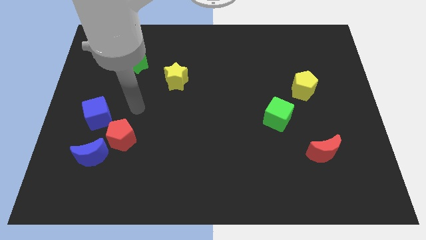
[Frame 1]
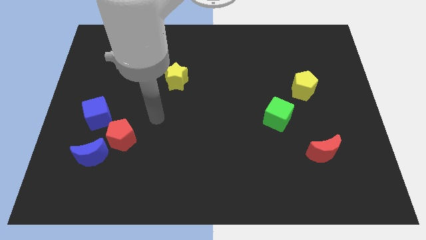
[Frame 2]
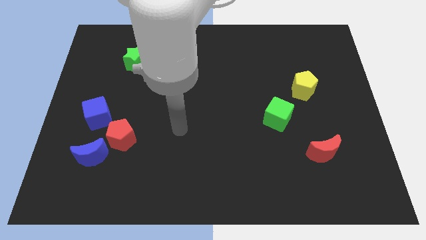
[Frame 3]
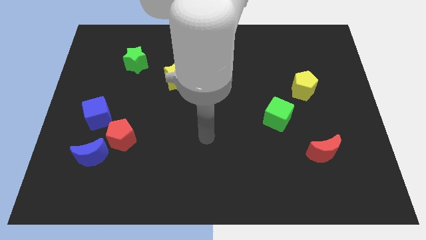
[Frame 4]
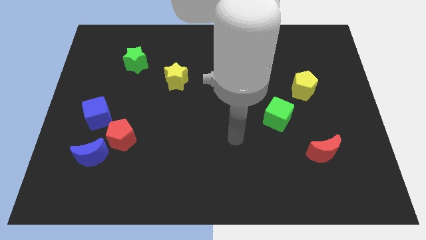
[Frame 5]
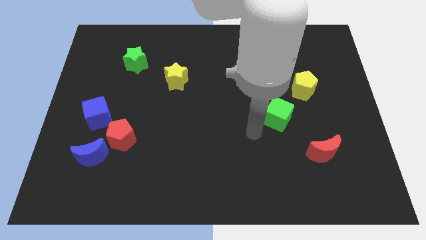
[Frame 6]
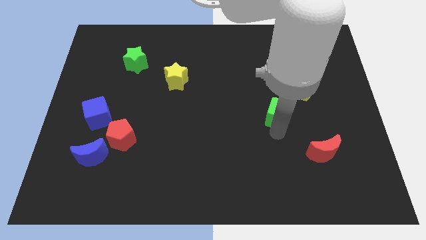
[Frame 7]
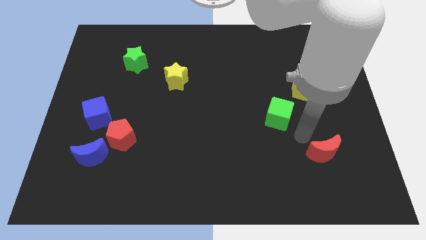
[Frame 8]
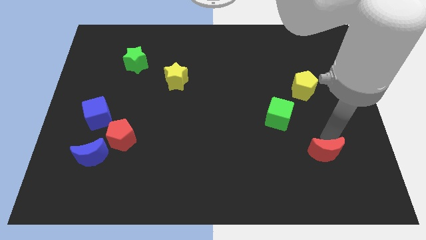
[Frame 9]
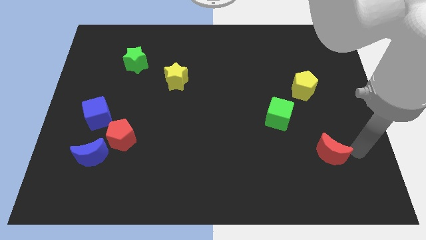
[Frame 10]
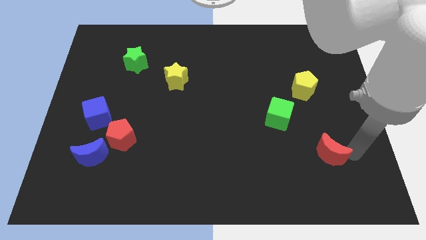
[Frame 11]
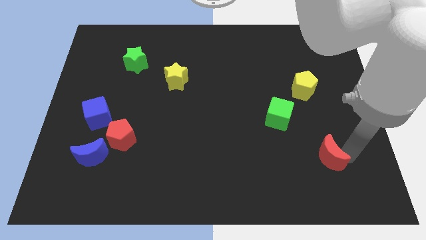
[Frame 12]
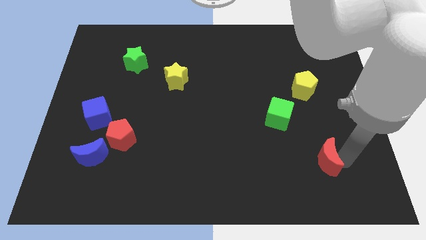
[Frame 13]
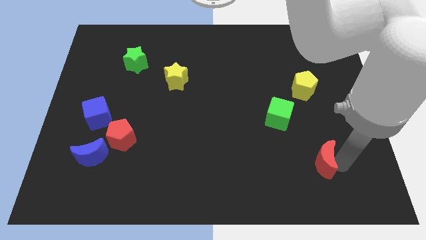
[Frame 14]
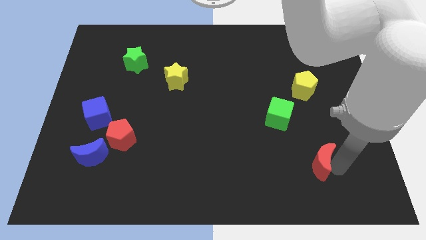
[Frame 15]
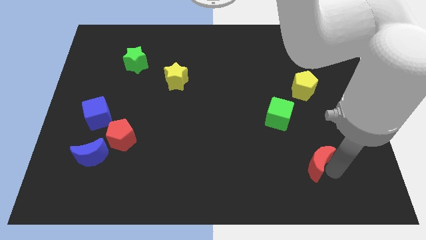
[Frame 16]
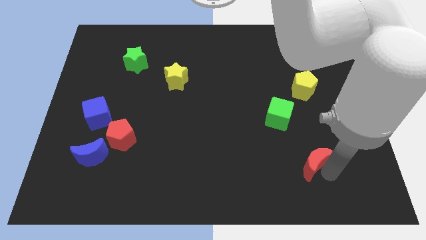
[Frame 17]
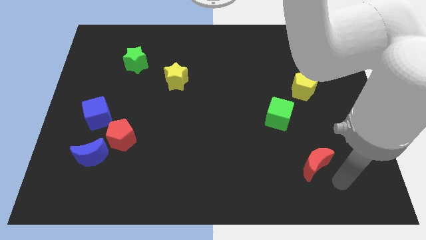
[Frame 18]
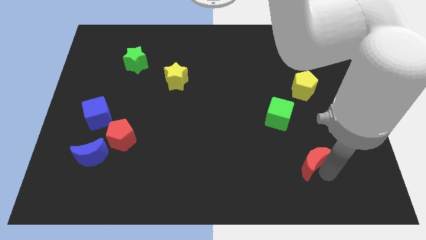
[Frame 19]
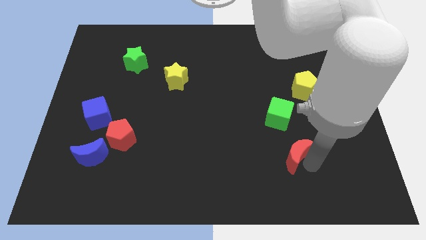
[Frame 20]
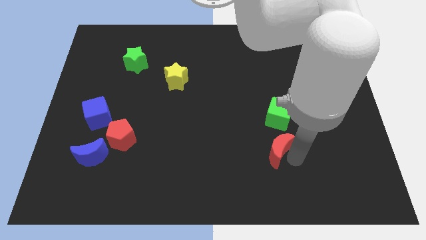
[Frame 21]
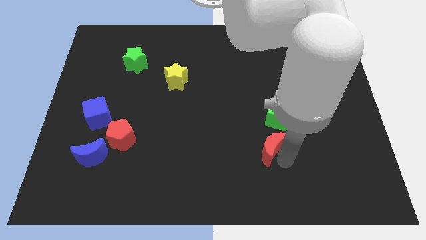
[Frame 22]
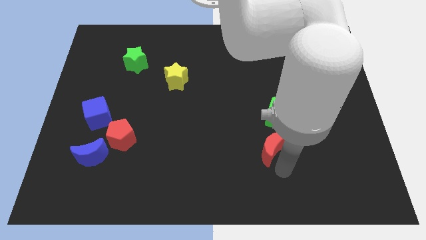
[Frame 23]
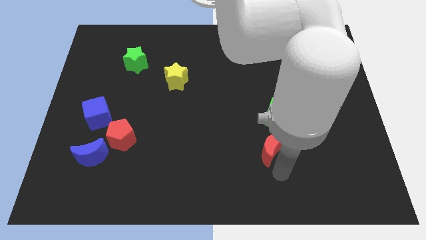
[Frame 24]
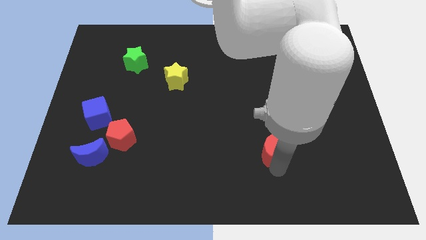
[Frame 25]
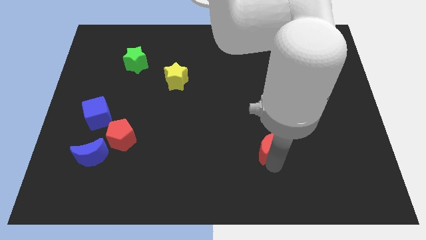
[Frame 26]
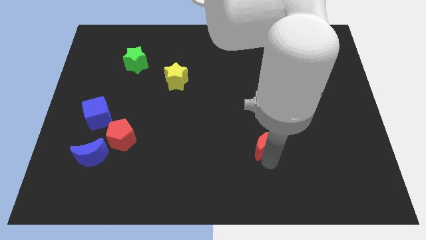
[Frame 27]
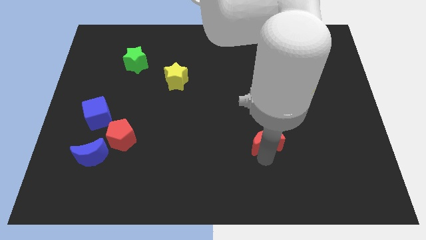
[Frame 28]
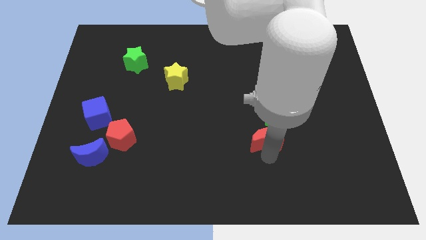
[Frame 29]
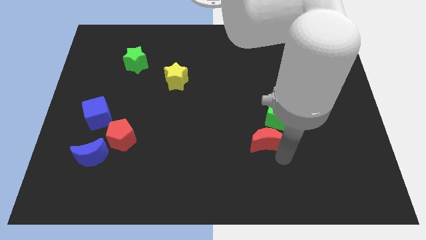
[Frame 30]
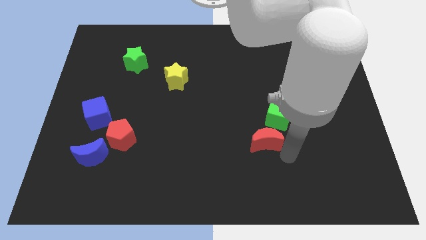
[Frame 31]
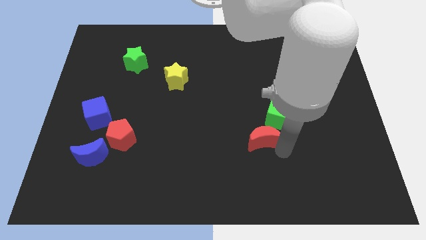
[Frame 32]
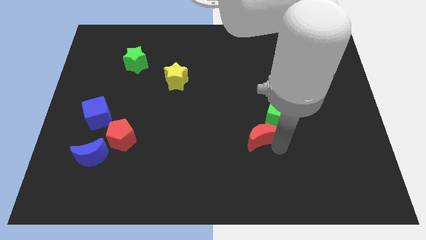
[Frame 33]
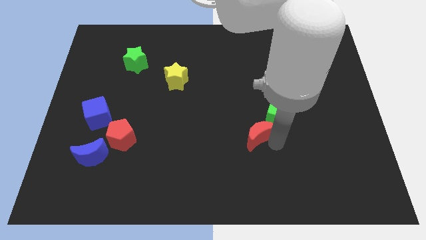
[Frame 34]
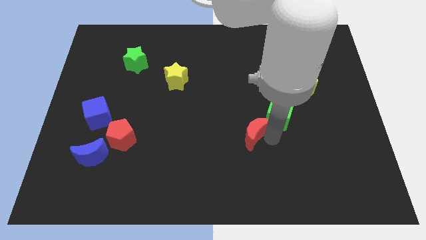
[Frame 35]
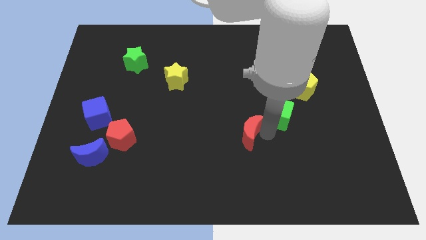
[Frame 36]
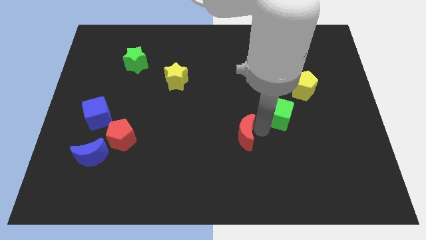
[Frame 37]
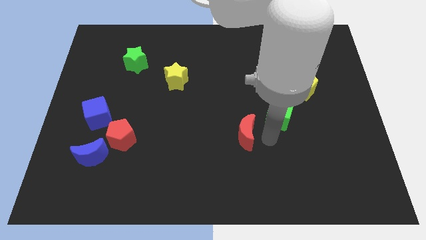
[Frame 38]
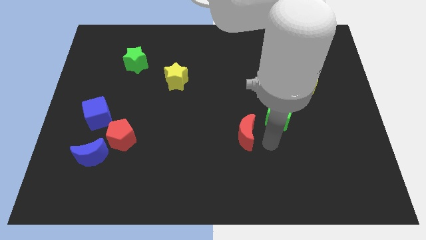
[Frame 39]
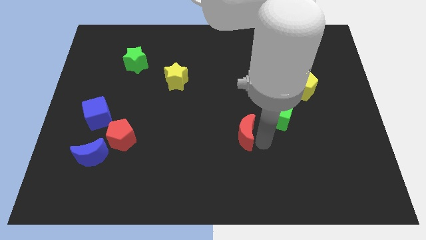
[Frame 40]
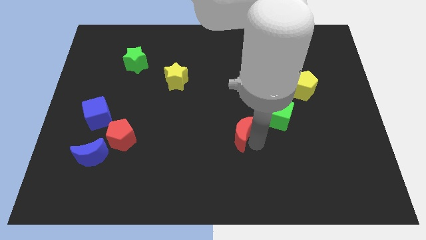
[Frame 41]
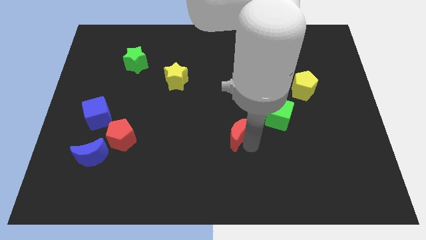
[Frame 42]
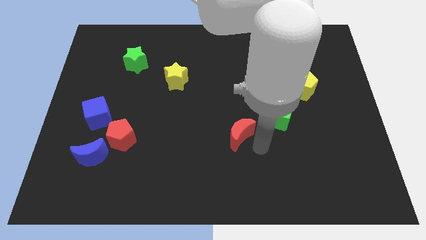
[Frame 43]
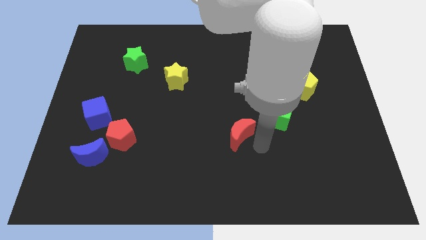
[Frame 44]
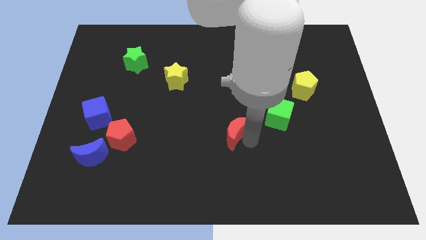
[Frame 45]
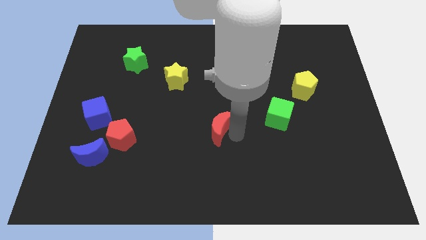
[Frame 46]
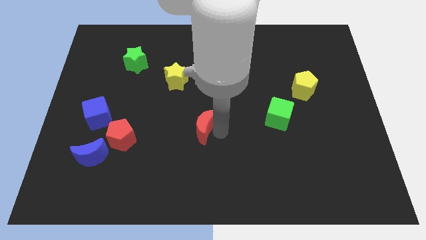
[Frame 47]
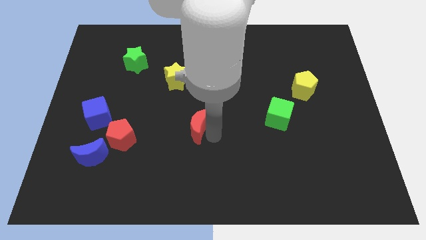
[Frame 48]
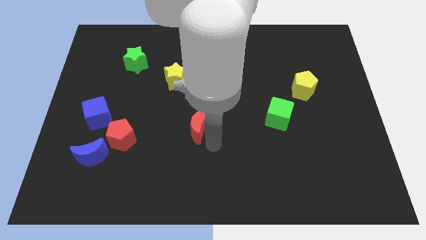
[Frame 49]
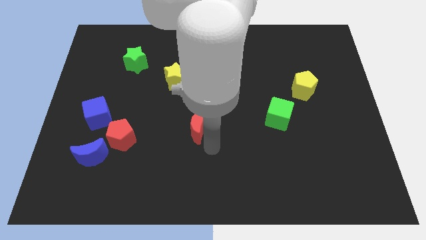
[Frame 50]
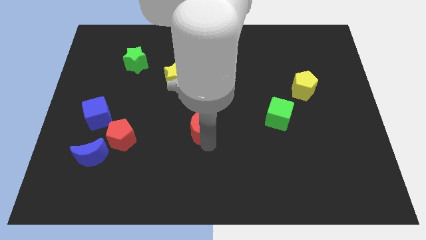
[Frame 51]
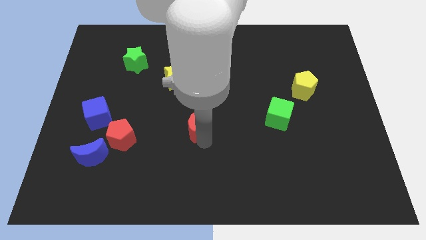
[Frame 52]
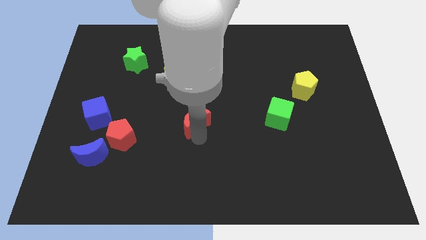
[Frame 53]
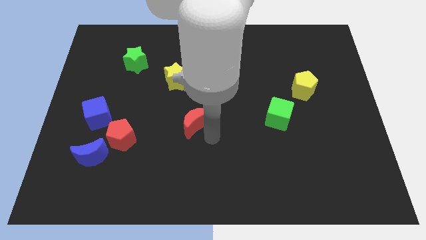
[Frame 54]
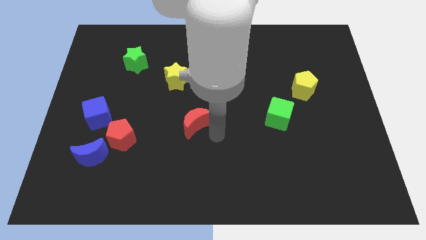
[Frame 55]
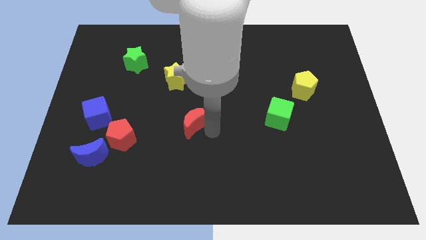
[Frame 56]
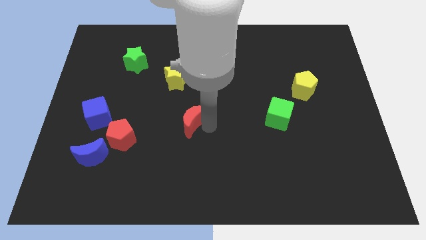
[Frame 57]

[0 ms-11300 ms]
push the red moon below the yellow star

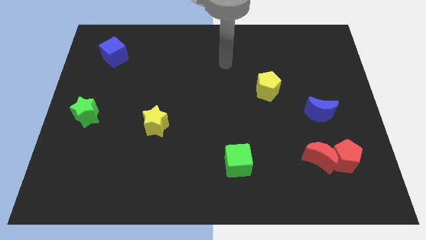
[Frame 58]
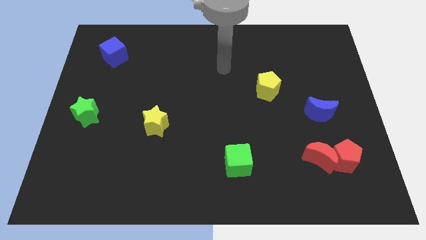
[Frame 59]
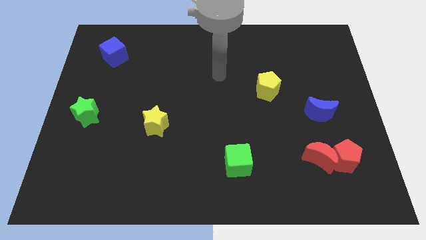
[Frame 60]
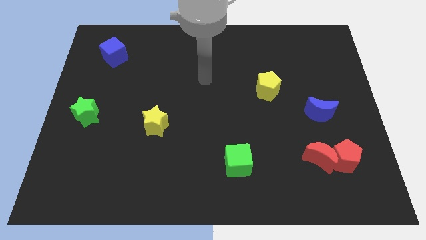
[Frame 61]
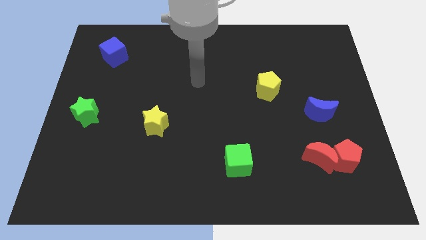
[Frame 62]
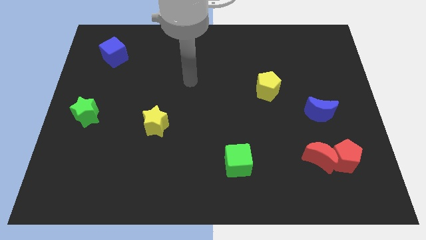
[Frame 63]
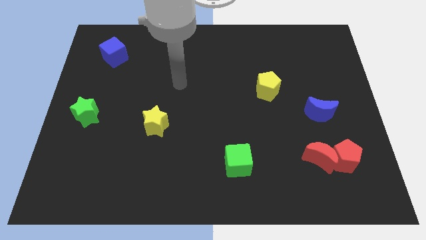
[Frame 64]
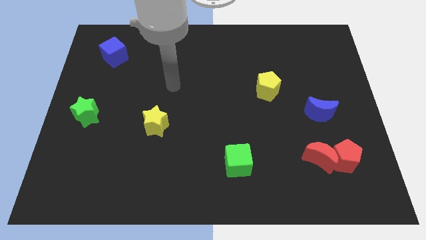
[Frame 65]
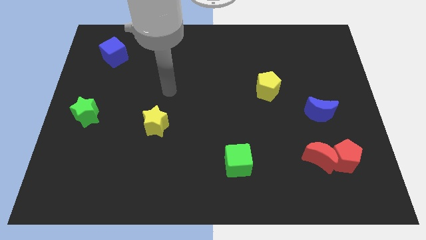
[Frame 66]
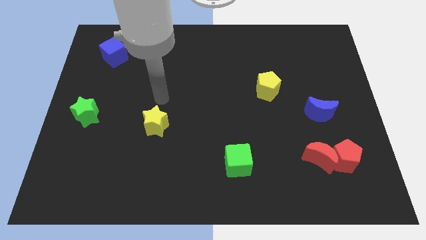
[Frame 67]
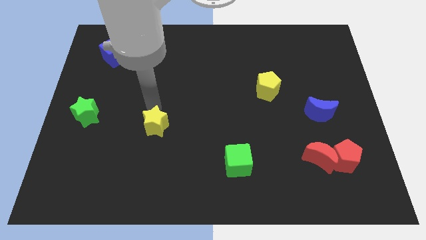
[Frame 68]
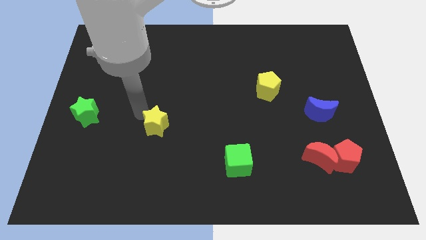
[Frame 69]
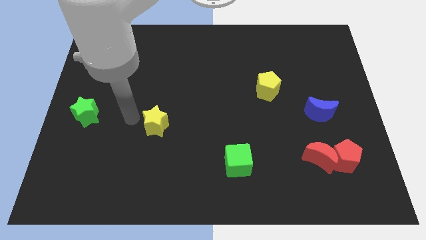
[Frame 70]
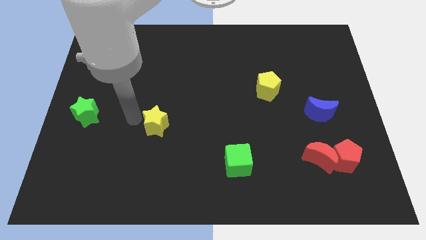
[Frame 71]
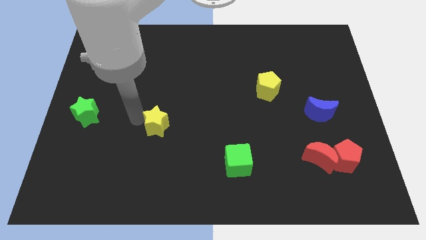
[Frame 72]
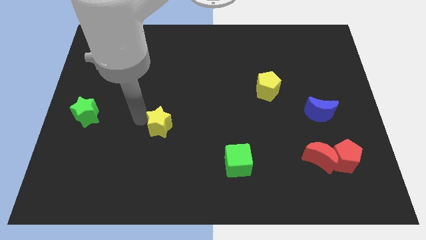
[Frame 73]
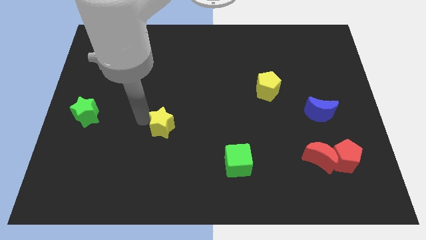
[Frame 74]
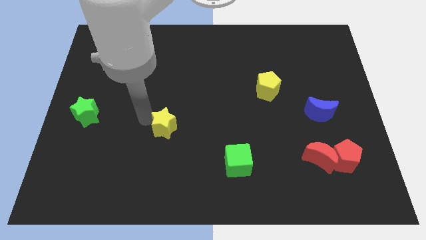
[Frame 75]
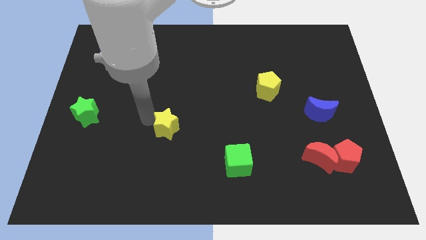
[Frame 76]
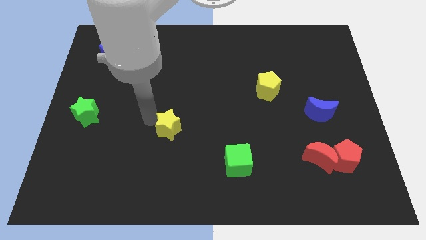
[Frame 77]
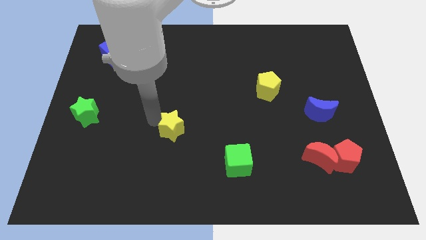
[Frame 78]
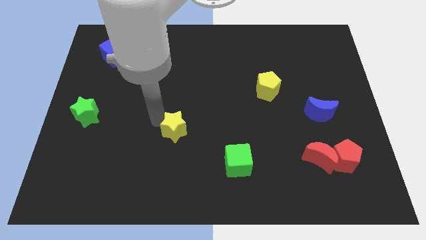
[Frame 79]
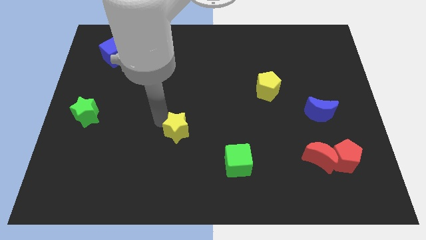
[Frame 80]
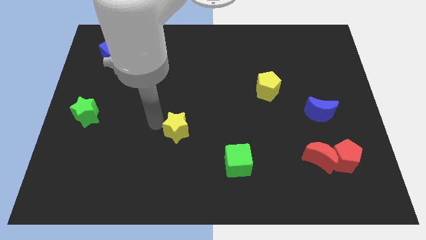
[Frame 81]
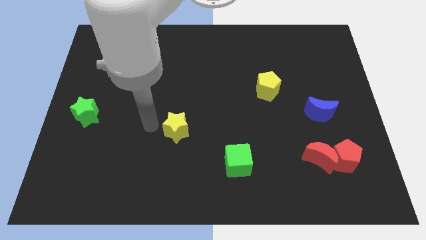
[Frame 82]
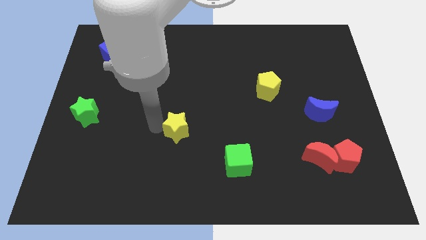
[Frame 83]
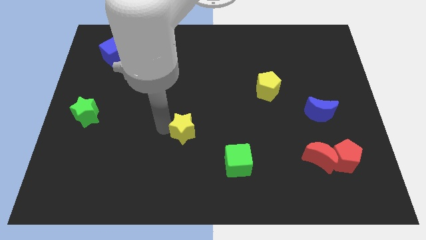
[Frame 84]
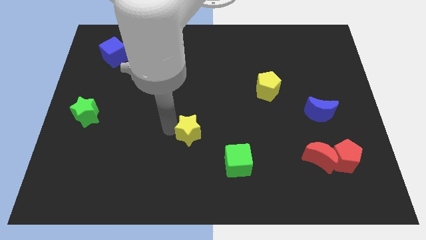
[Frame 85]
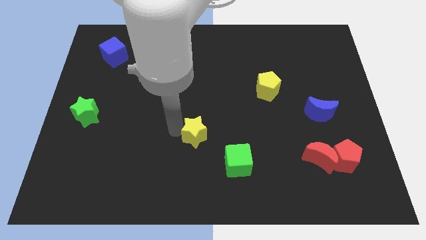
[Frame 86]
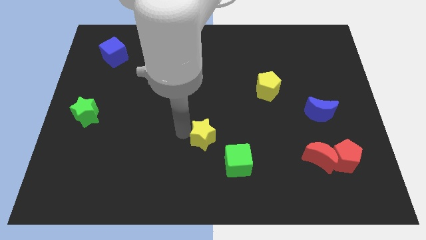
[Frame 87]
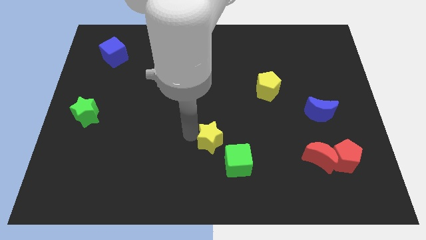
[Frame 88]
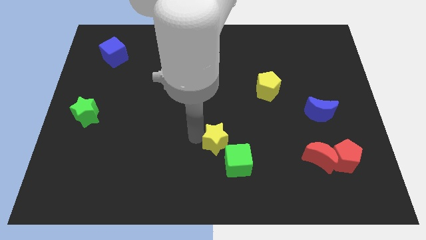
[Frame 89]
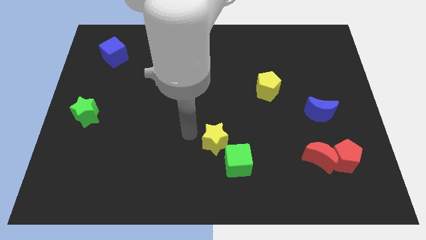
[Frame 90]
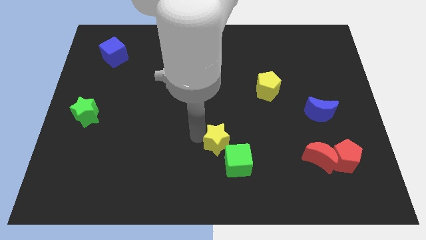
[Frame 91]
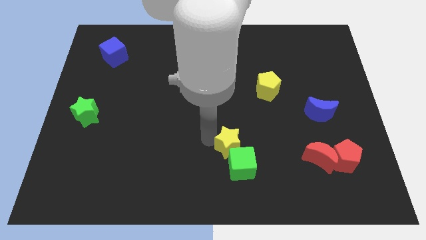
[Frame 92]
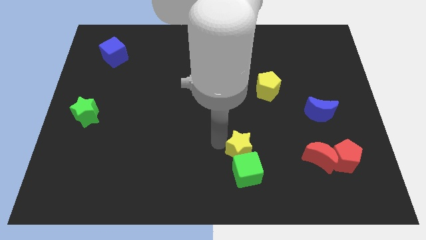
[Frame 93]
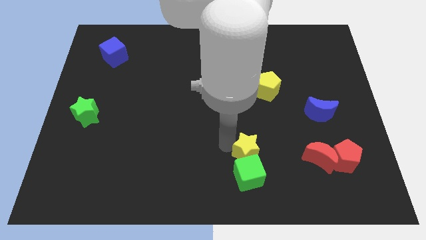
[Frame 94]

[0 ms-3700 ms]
slide the yellow star just left of the red moon
